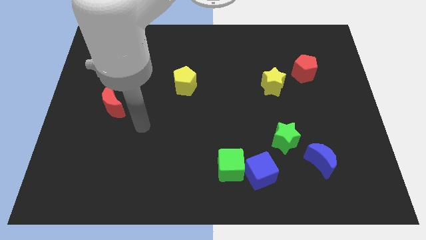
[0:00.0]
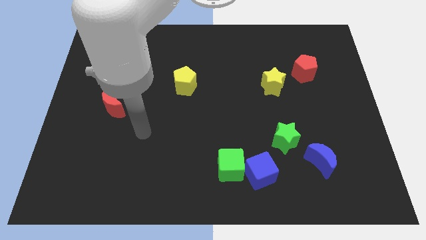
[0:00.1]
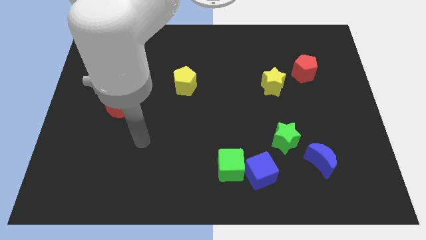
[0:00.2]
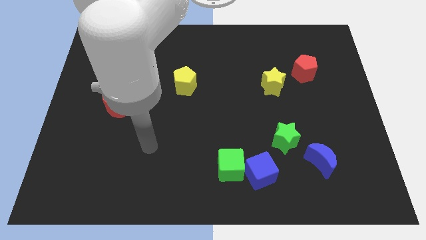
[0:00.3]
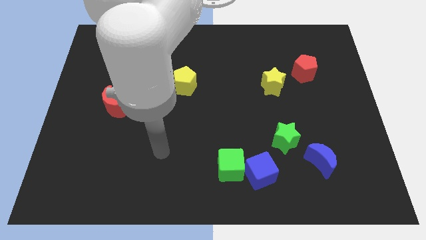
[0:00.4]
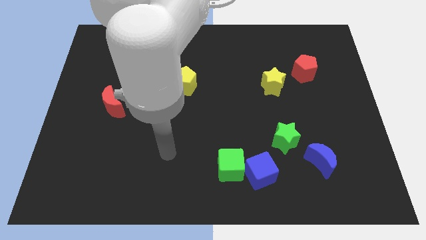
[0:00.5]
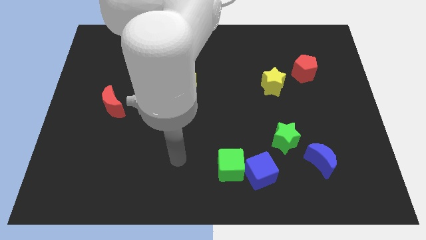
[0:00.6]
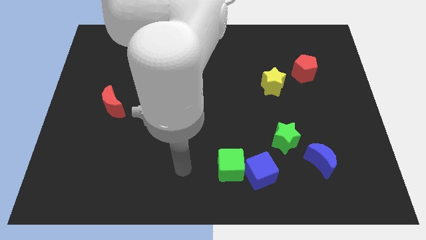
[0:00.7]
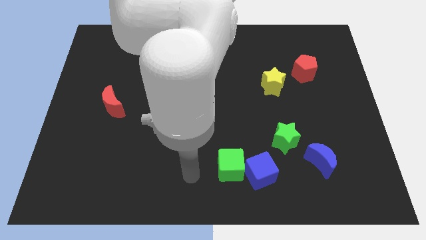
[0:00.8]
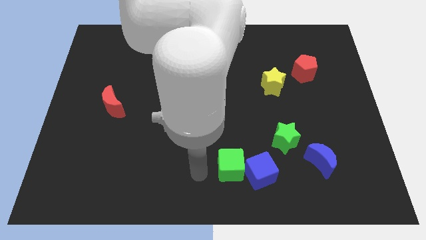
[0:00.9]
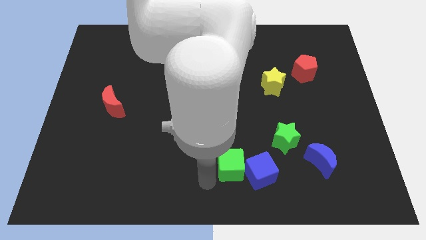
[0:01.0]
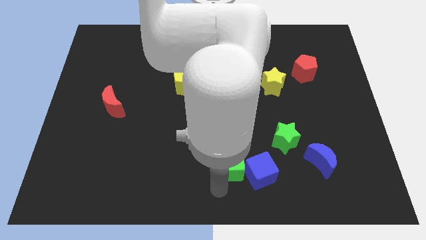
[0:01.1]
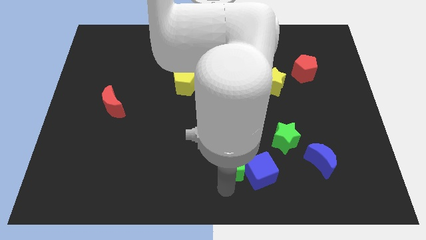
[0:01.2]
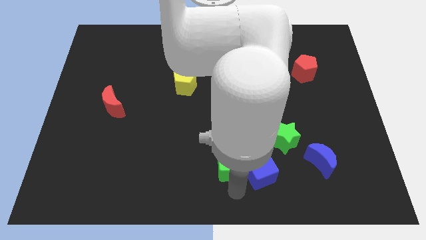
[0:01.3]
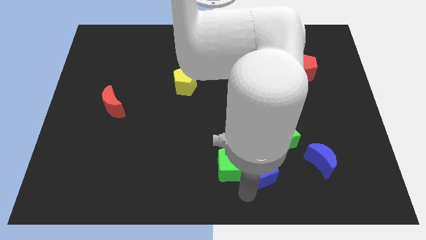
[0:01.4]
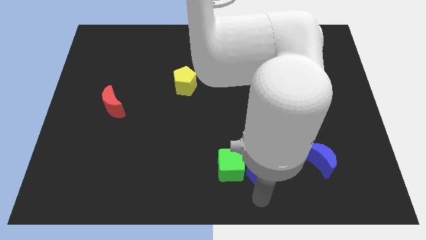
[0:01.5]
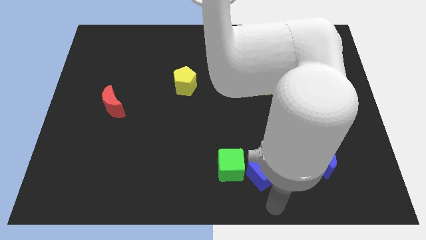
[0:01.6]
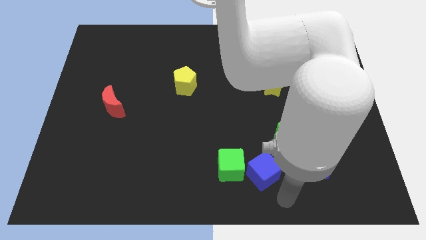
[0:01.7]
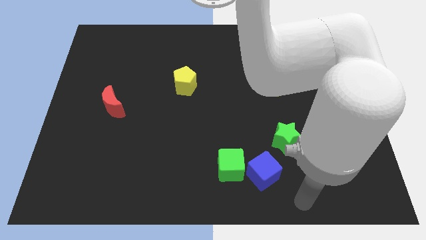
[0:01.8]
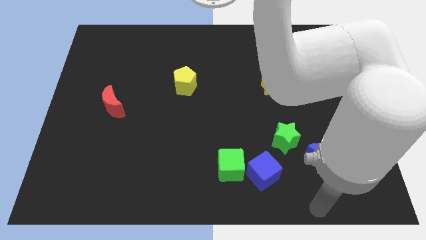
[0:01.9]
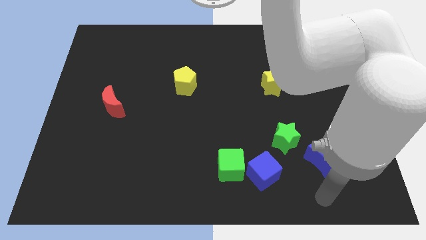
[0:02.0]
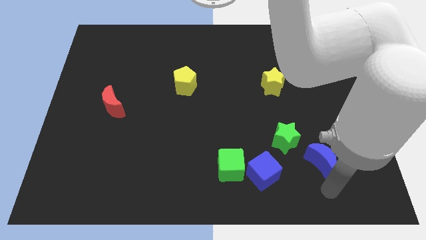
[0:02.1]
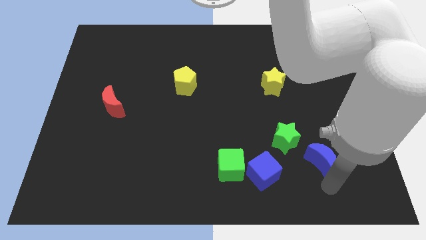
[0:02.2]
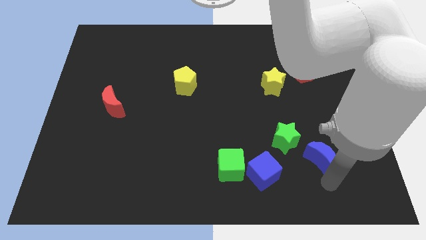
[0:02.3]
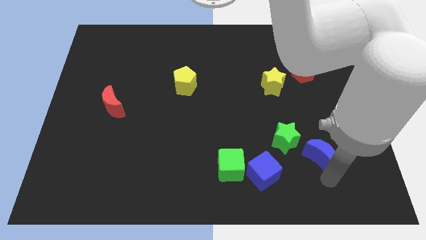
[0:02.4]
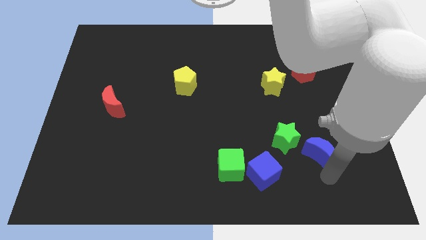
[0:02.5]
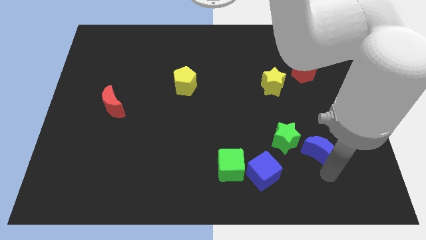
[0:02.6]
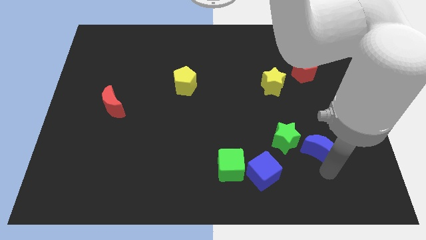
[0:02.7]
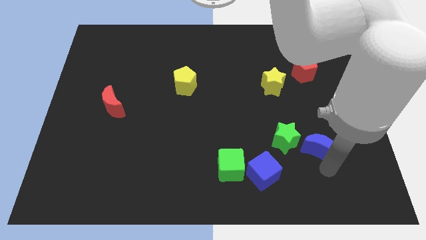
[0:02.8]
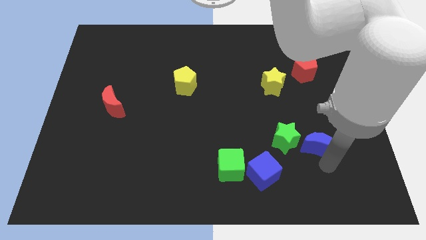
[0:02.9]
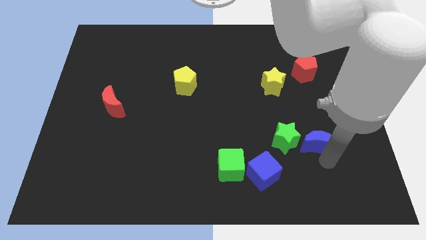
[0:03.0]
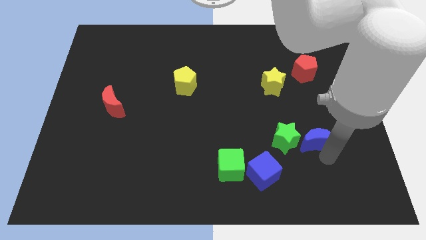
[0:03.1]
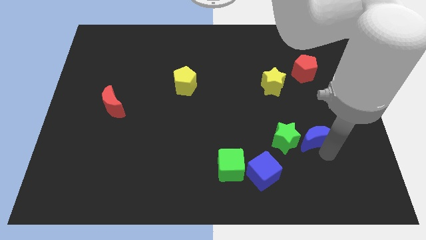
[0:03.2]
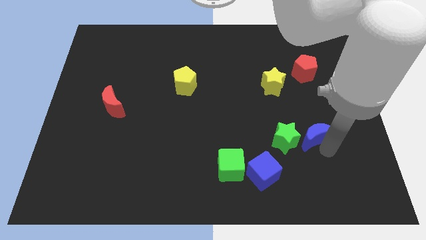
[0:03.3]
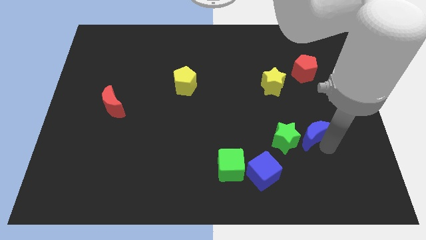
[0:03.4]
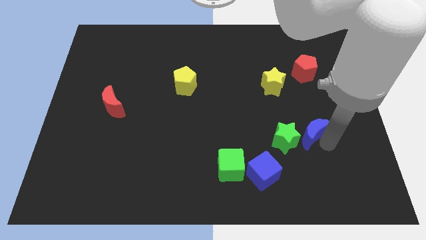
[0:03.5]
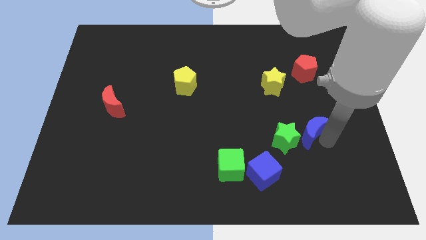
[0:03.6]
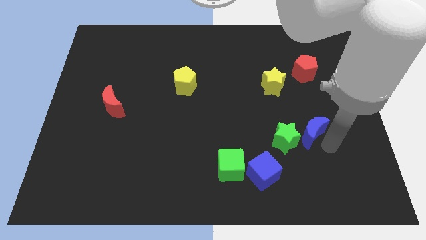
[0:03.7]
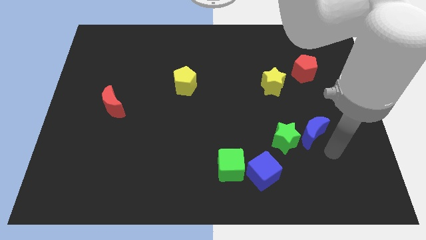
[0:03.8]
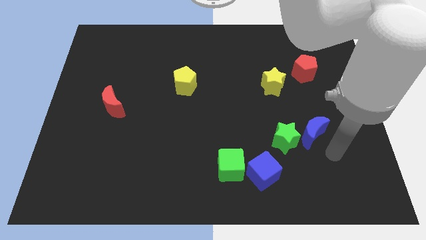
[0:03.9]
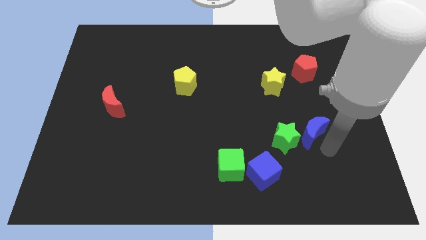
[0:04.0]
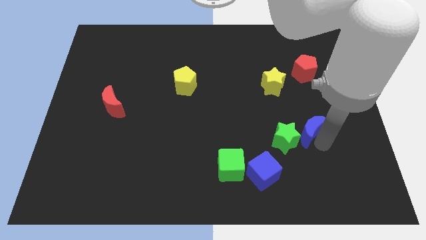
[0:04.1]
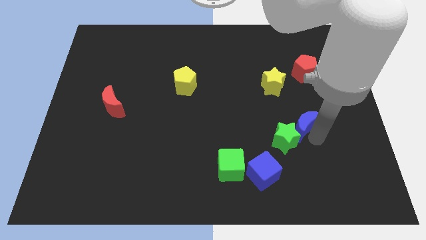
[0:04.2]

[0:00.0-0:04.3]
slightly move the blue moon diagonally up and left

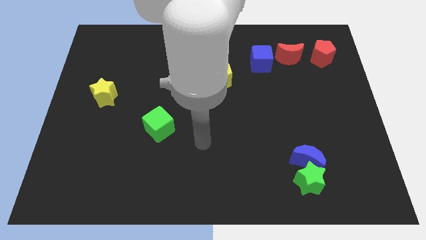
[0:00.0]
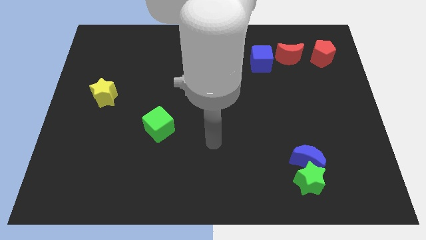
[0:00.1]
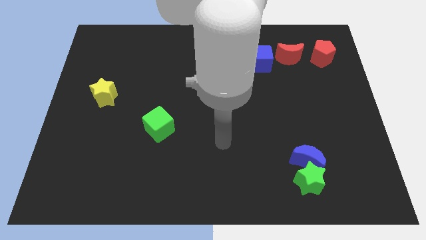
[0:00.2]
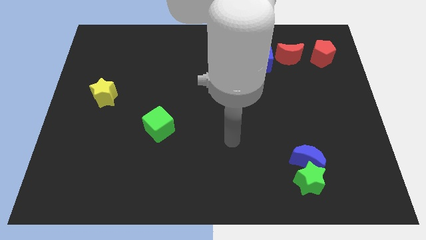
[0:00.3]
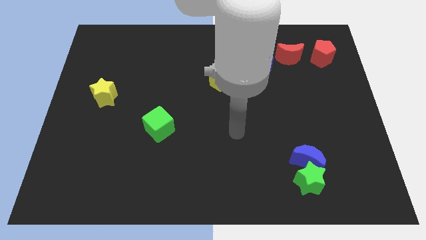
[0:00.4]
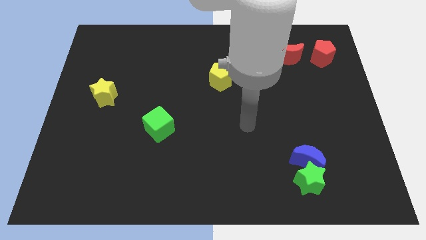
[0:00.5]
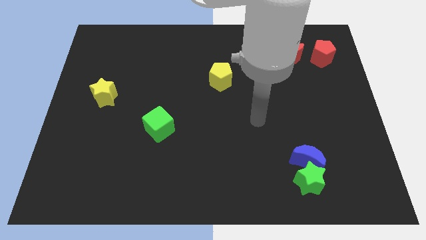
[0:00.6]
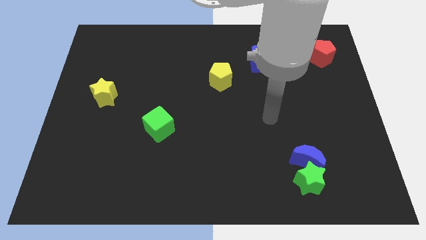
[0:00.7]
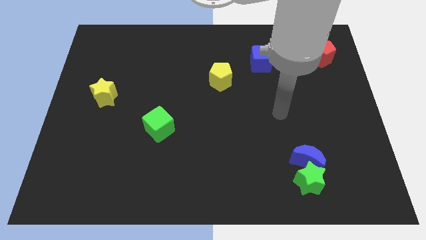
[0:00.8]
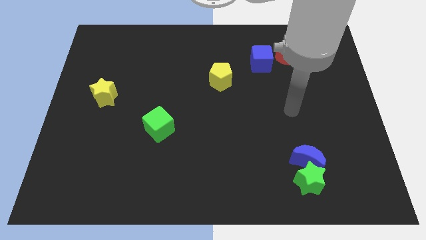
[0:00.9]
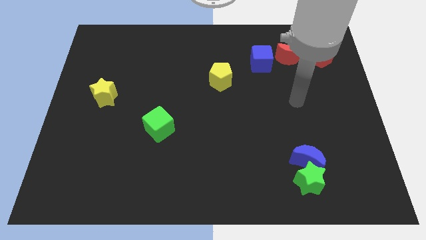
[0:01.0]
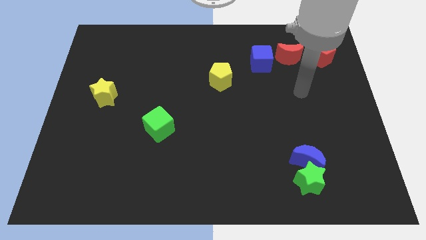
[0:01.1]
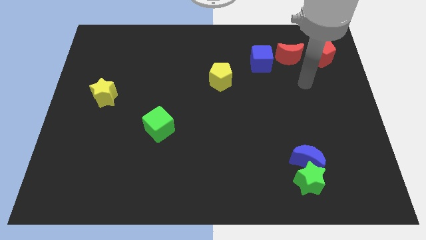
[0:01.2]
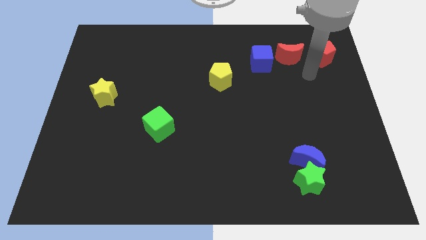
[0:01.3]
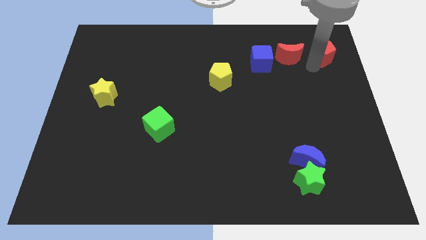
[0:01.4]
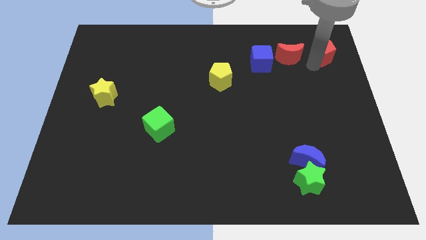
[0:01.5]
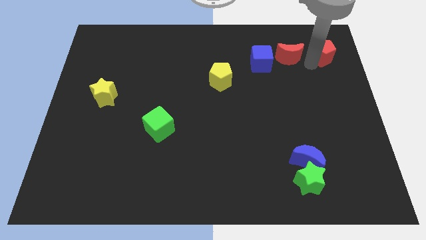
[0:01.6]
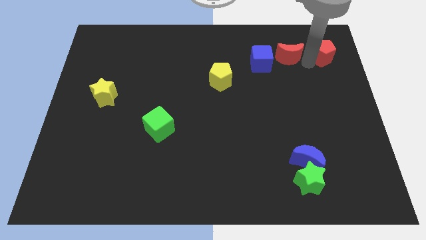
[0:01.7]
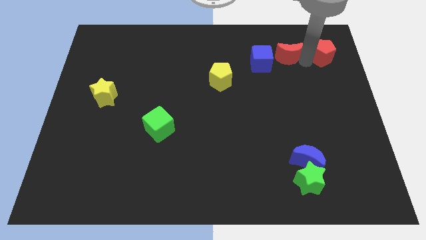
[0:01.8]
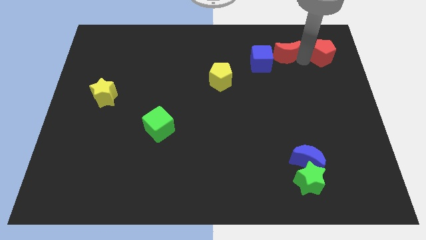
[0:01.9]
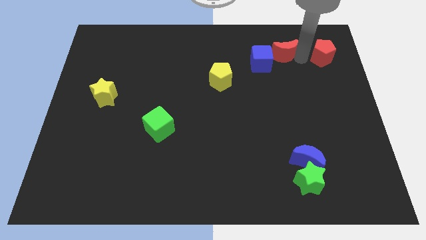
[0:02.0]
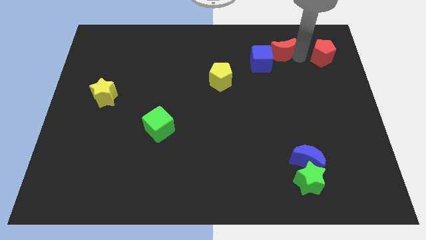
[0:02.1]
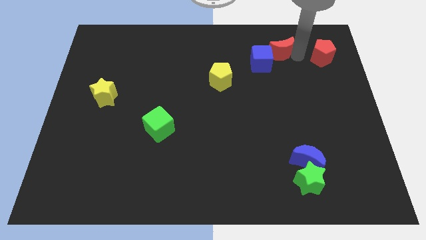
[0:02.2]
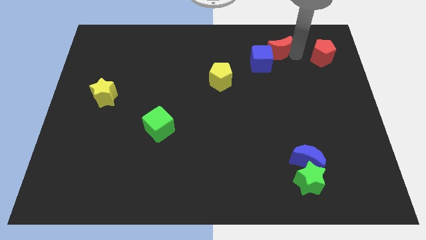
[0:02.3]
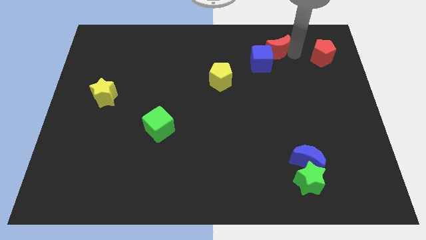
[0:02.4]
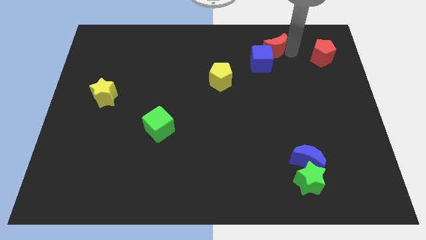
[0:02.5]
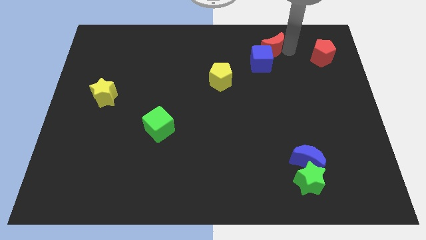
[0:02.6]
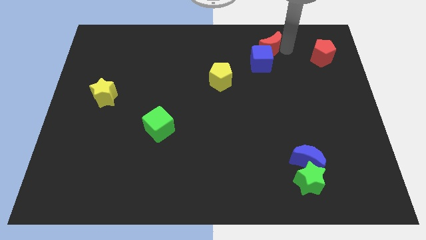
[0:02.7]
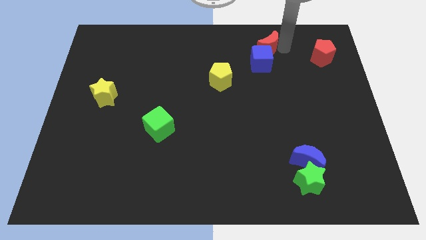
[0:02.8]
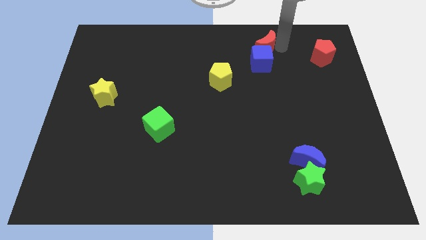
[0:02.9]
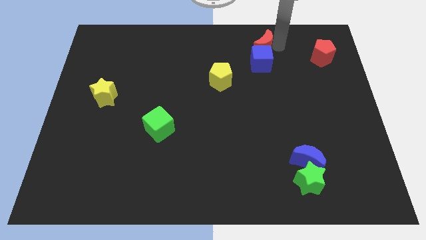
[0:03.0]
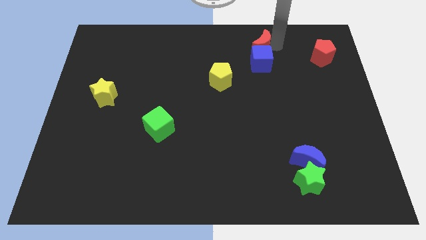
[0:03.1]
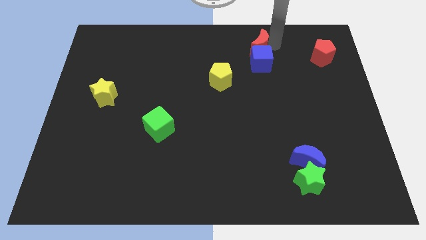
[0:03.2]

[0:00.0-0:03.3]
slightly push the red moon left

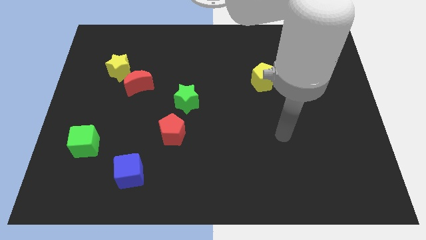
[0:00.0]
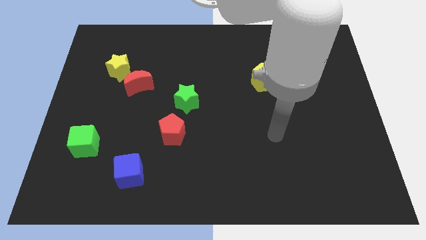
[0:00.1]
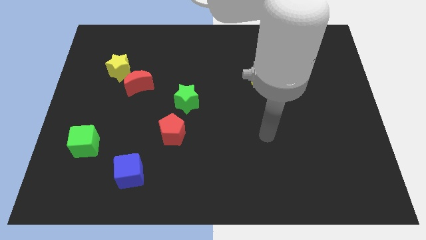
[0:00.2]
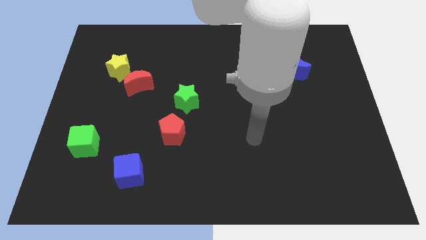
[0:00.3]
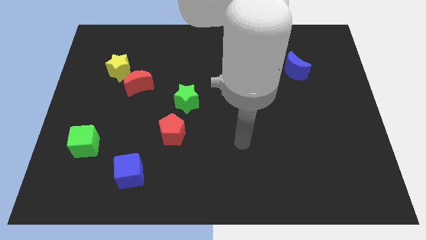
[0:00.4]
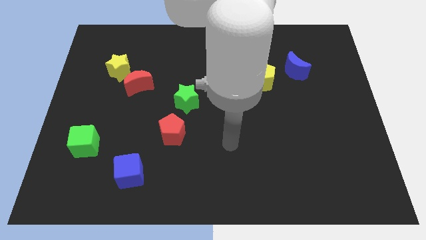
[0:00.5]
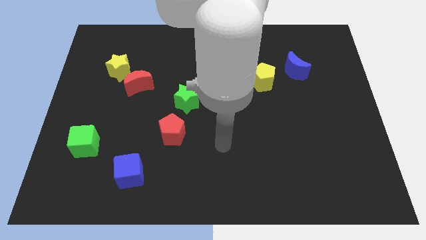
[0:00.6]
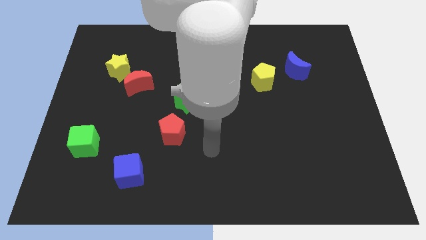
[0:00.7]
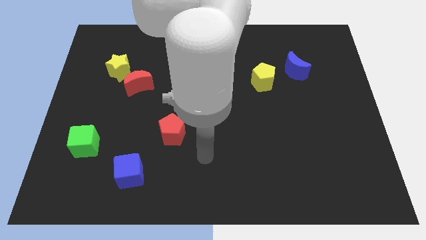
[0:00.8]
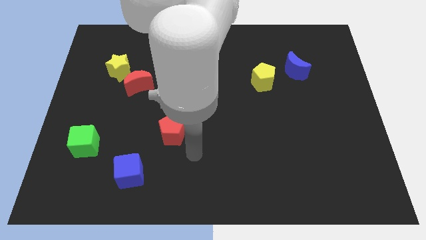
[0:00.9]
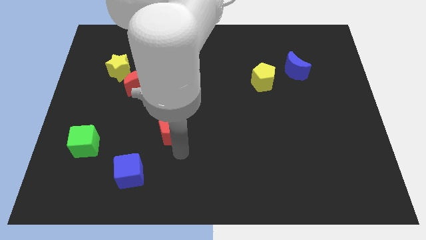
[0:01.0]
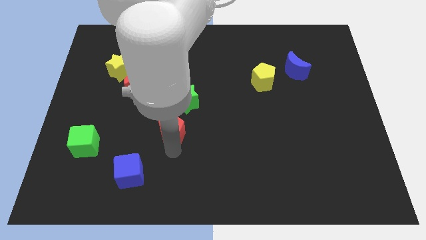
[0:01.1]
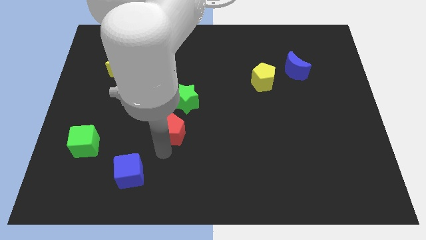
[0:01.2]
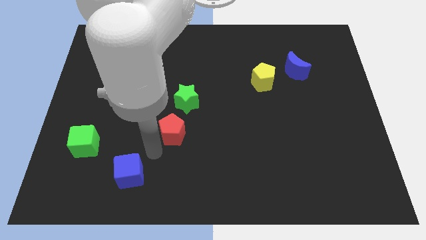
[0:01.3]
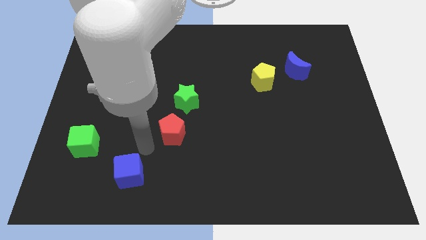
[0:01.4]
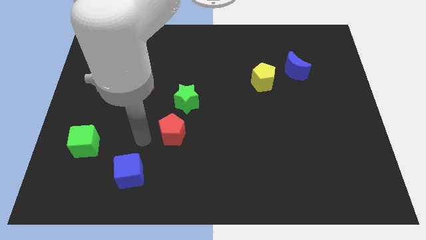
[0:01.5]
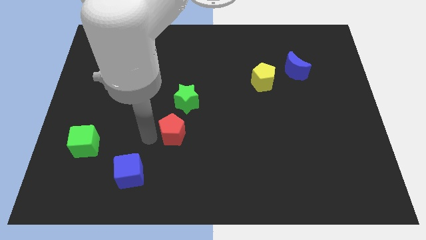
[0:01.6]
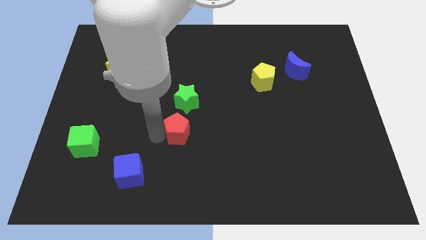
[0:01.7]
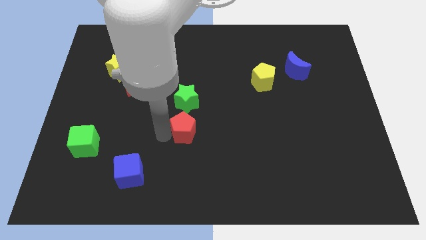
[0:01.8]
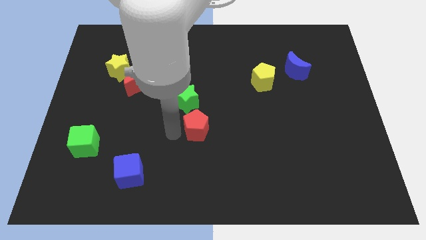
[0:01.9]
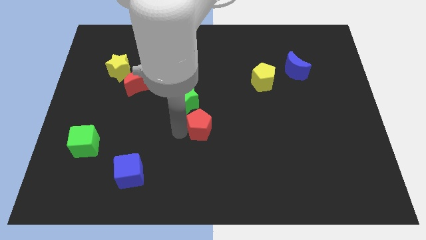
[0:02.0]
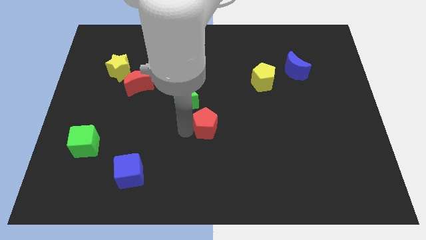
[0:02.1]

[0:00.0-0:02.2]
move the red pentagon right a bit
